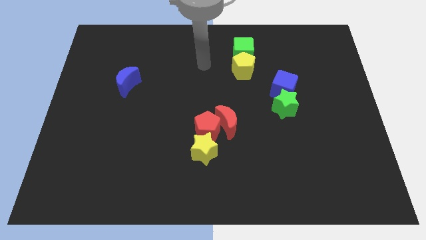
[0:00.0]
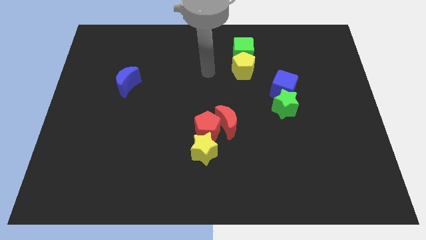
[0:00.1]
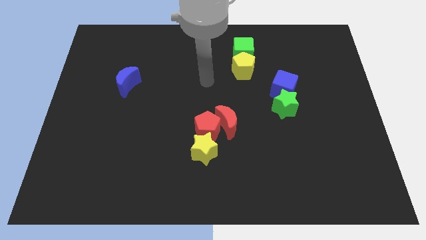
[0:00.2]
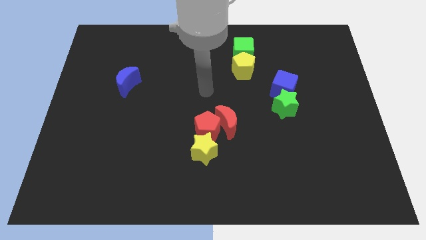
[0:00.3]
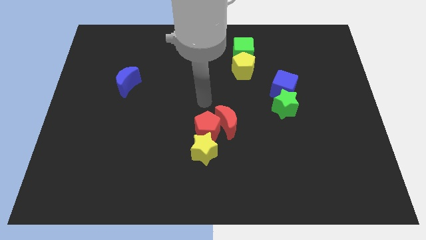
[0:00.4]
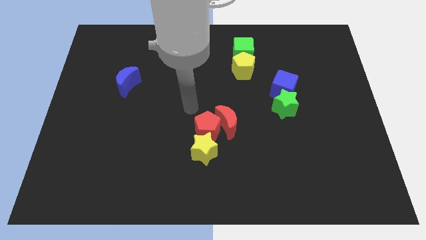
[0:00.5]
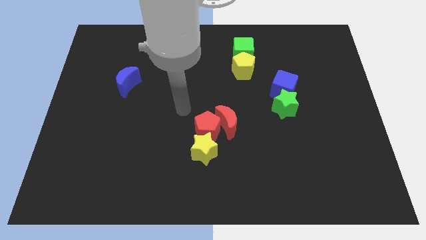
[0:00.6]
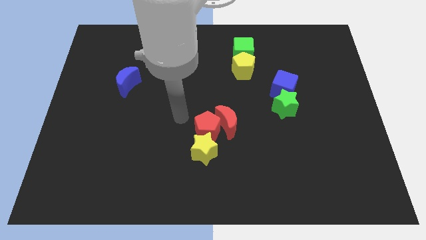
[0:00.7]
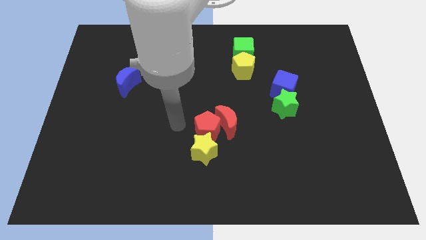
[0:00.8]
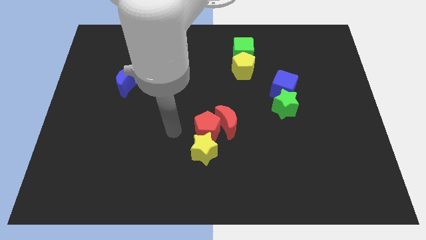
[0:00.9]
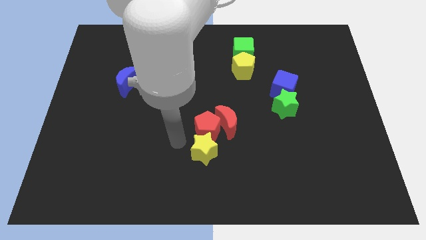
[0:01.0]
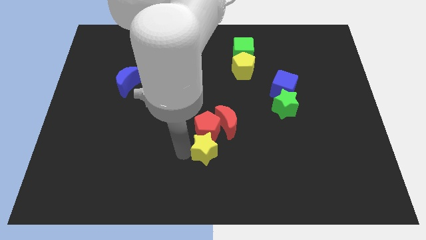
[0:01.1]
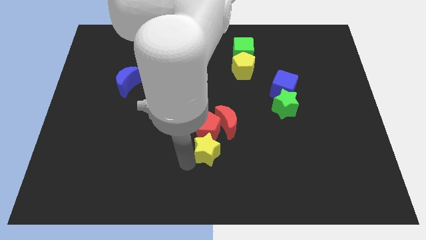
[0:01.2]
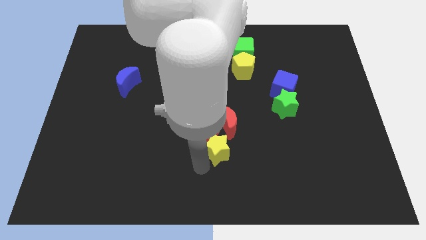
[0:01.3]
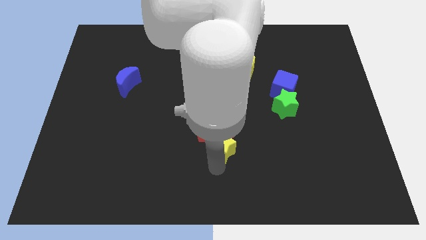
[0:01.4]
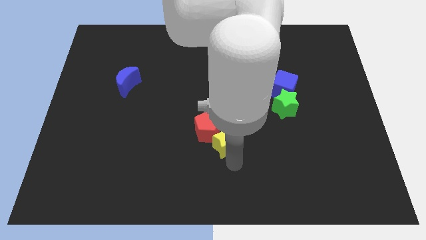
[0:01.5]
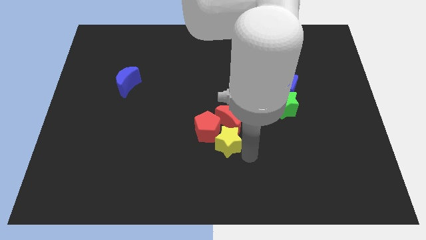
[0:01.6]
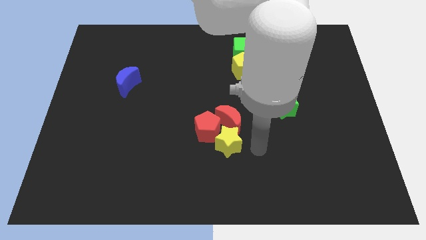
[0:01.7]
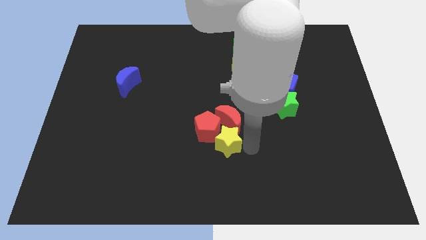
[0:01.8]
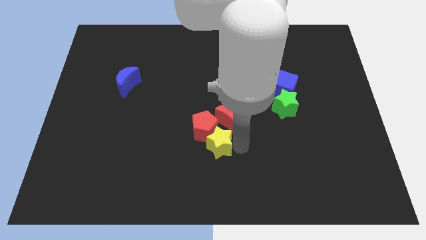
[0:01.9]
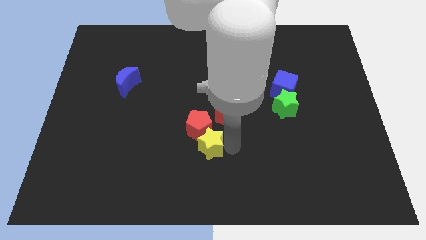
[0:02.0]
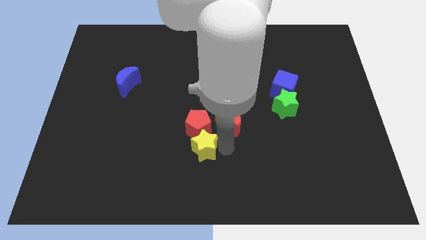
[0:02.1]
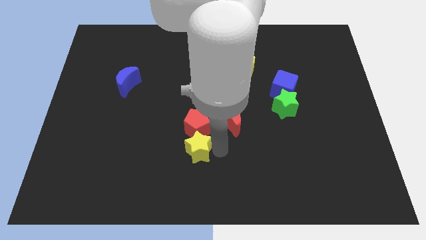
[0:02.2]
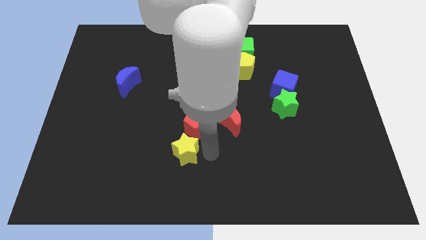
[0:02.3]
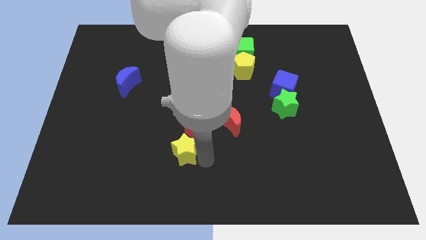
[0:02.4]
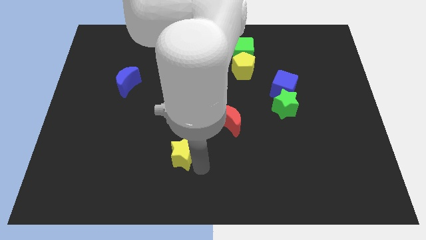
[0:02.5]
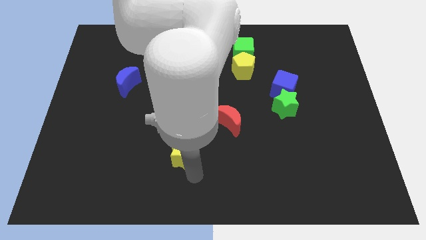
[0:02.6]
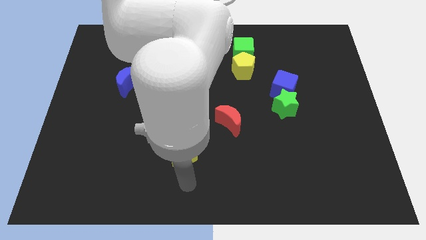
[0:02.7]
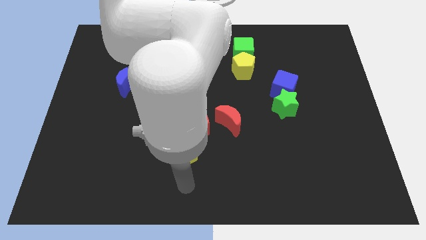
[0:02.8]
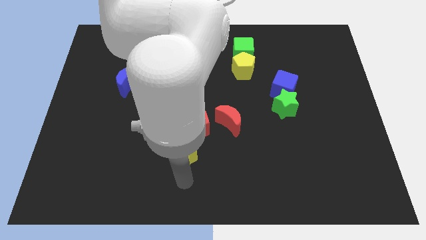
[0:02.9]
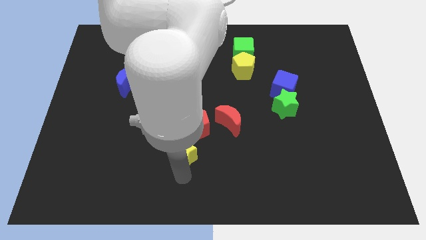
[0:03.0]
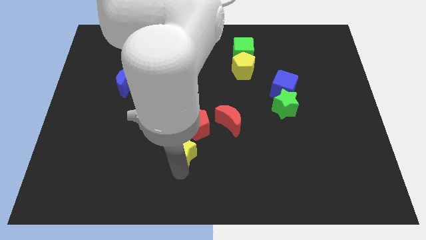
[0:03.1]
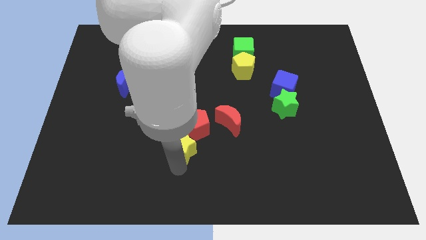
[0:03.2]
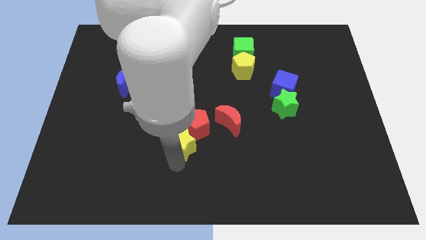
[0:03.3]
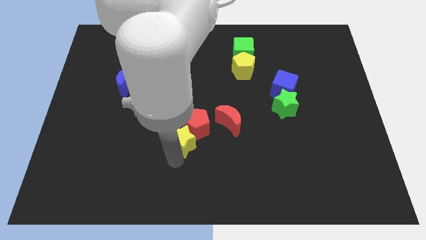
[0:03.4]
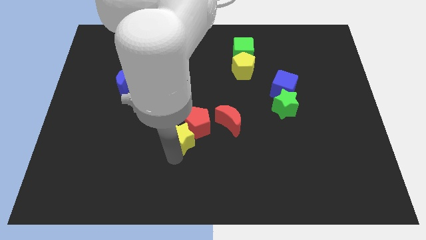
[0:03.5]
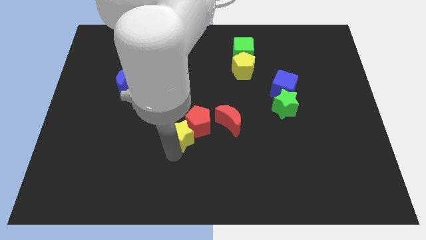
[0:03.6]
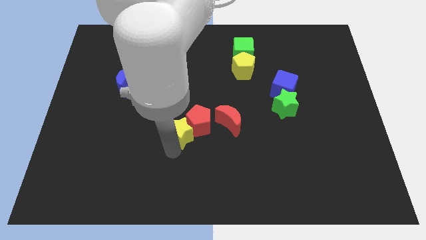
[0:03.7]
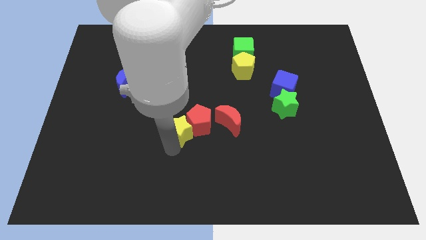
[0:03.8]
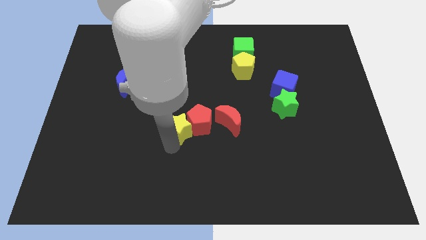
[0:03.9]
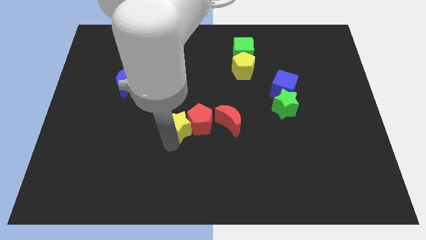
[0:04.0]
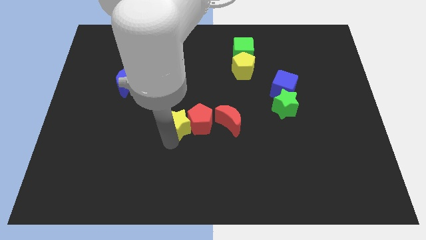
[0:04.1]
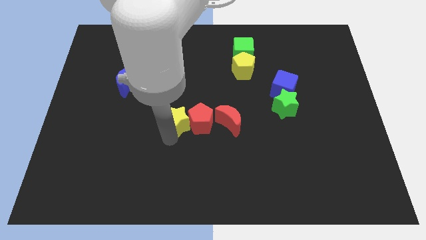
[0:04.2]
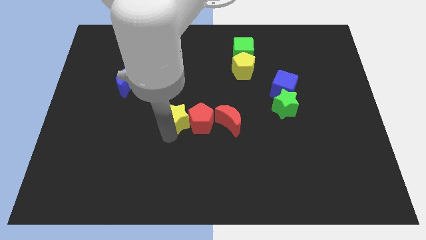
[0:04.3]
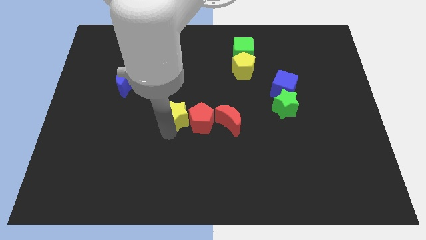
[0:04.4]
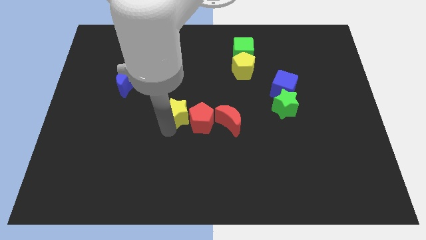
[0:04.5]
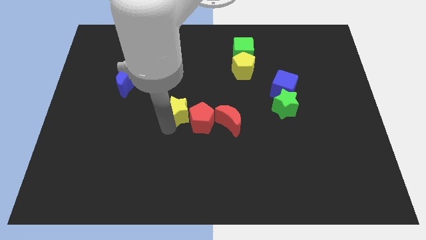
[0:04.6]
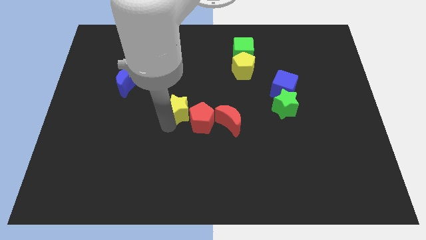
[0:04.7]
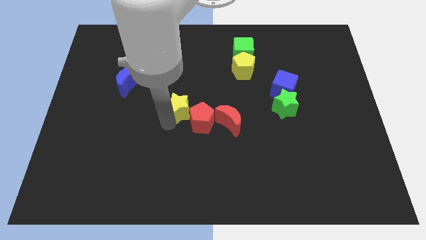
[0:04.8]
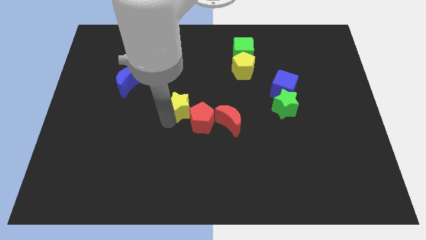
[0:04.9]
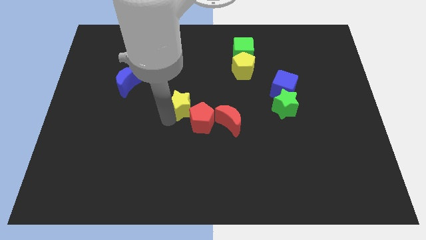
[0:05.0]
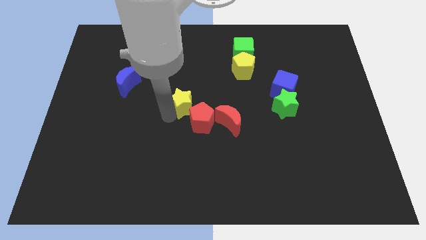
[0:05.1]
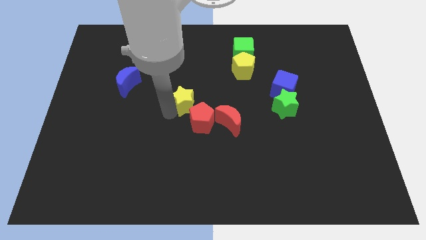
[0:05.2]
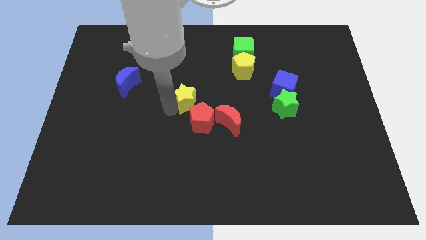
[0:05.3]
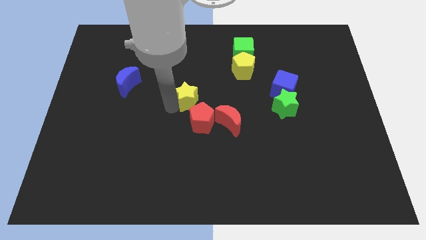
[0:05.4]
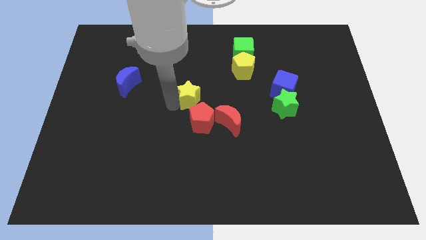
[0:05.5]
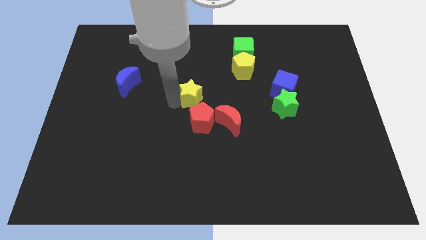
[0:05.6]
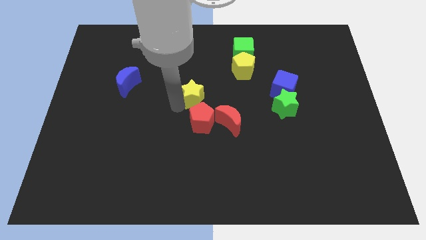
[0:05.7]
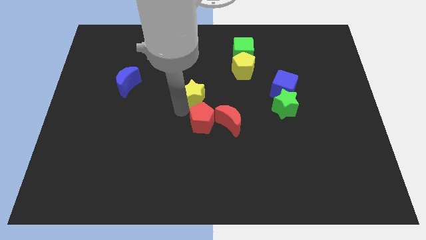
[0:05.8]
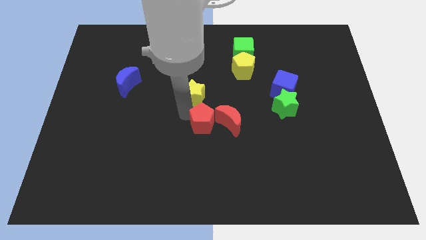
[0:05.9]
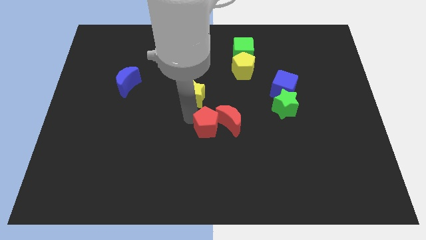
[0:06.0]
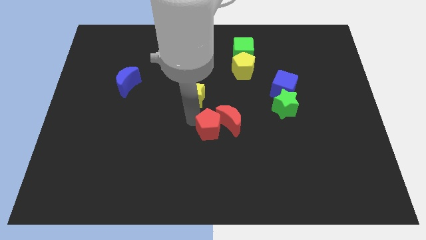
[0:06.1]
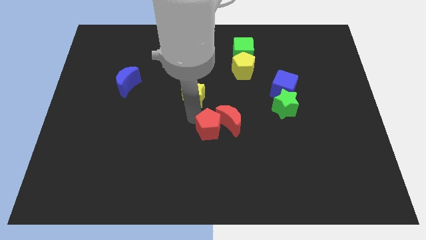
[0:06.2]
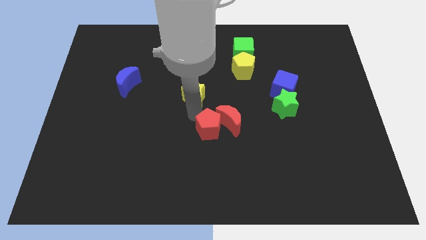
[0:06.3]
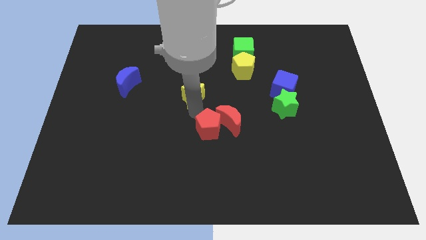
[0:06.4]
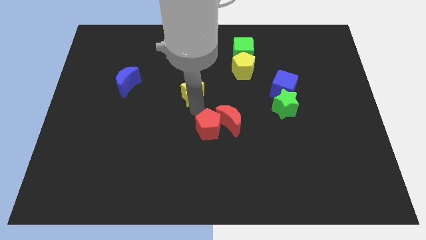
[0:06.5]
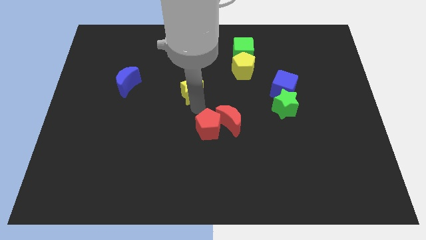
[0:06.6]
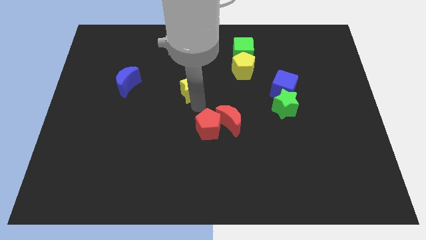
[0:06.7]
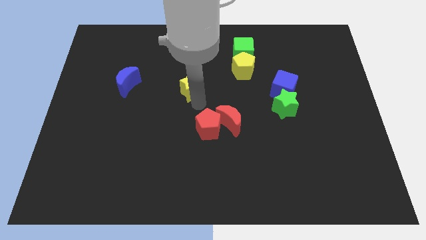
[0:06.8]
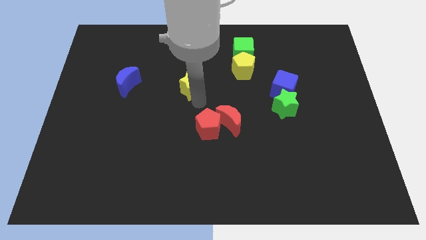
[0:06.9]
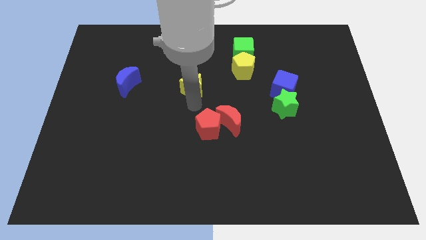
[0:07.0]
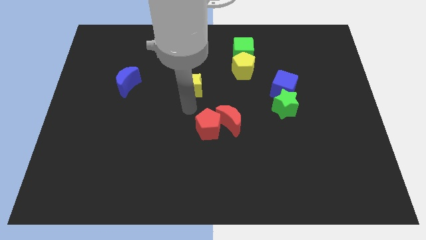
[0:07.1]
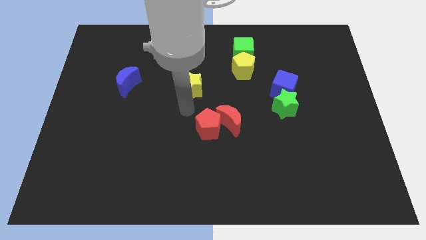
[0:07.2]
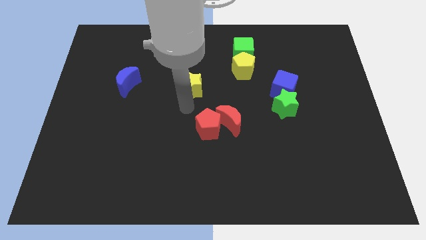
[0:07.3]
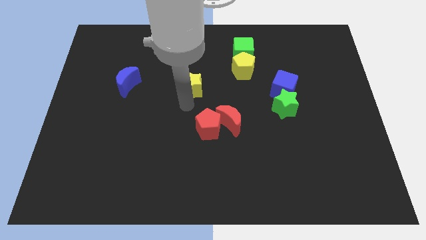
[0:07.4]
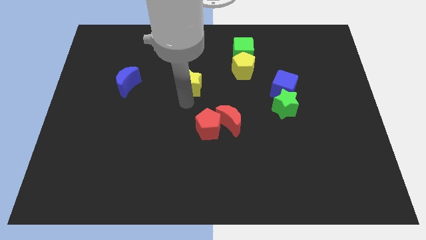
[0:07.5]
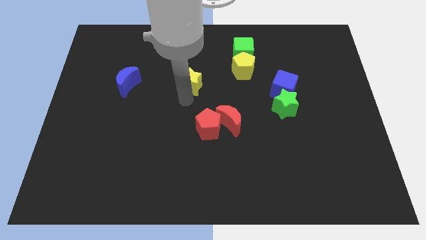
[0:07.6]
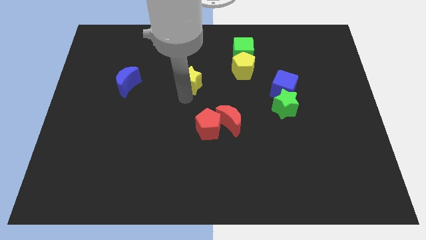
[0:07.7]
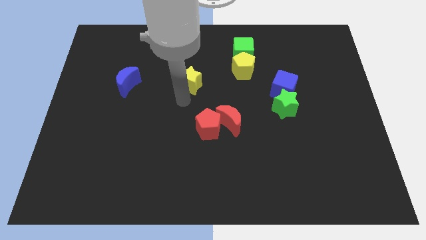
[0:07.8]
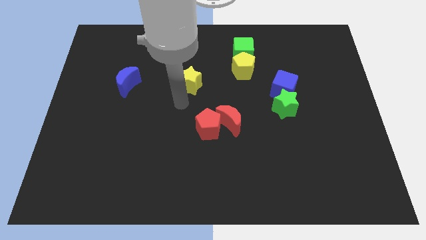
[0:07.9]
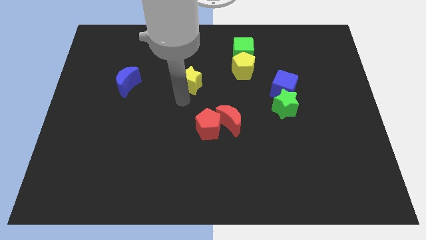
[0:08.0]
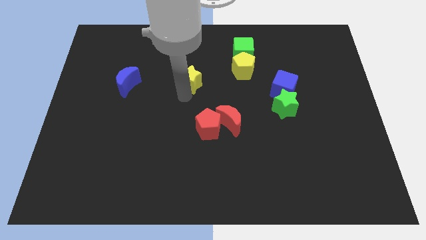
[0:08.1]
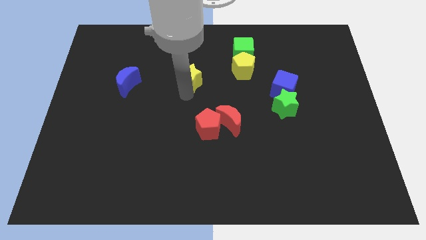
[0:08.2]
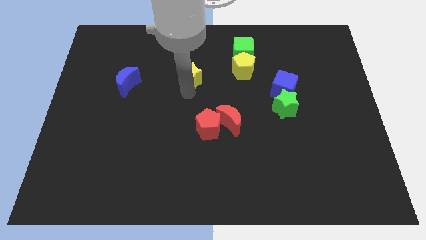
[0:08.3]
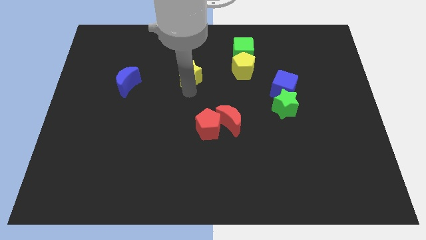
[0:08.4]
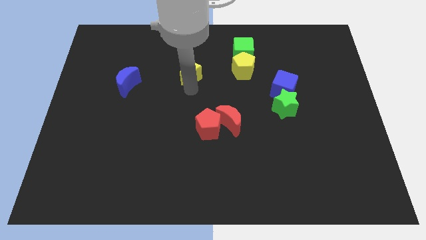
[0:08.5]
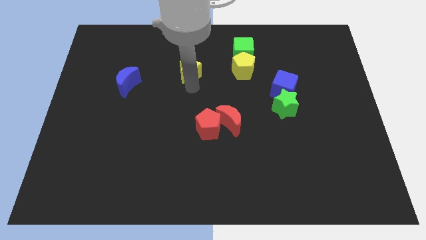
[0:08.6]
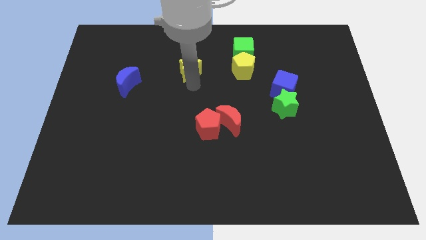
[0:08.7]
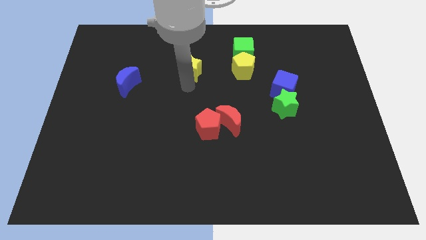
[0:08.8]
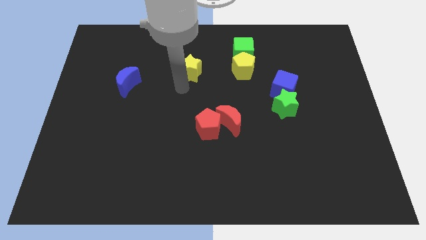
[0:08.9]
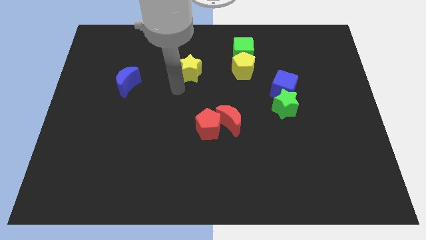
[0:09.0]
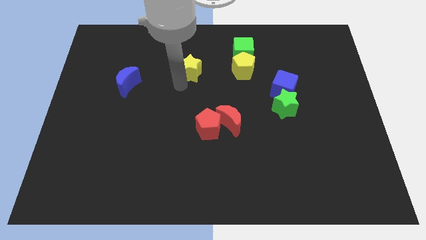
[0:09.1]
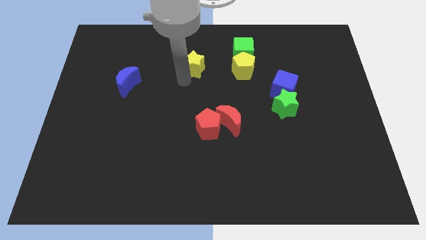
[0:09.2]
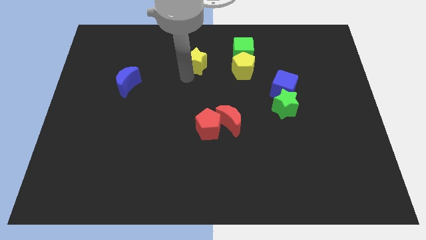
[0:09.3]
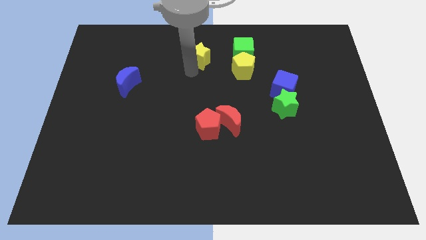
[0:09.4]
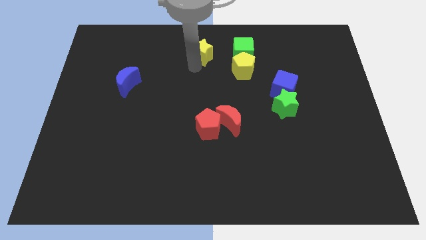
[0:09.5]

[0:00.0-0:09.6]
slide the yellow star to the towards your base
